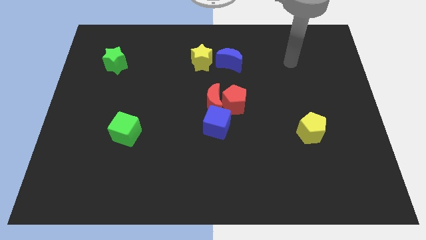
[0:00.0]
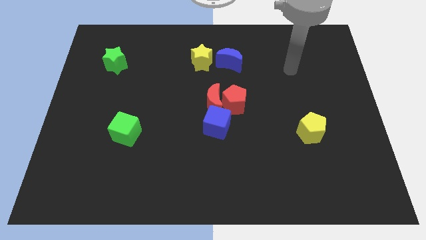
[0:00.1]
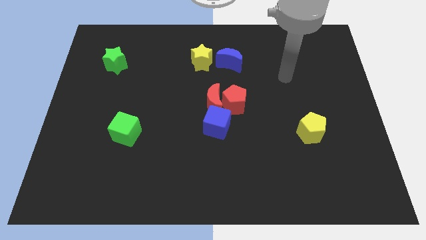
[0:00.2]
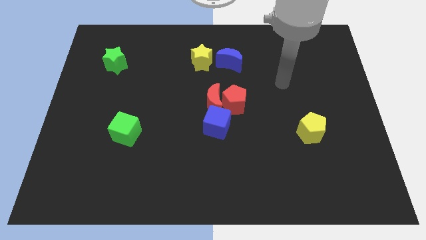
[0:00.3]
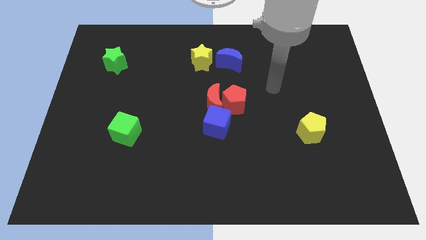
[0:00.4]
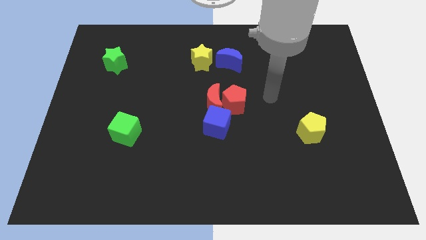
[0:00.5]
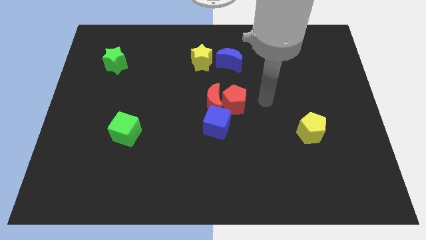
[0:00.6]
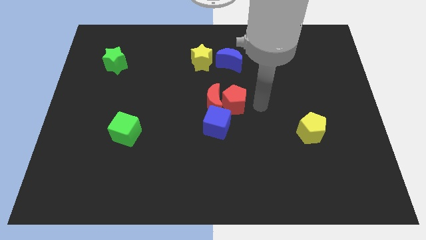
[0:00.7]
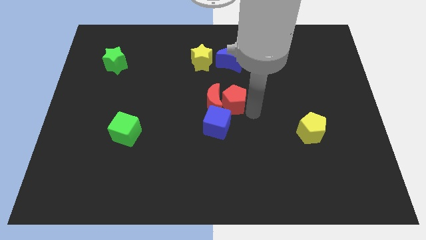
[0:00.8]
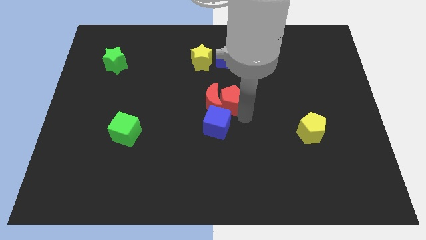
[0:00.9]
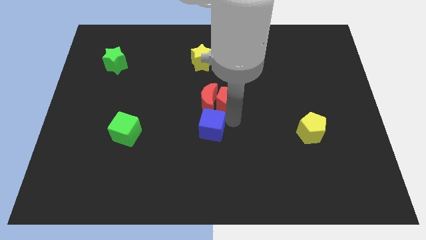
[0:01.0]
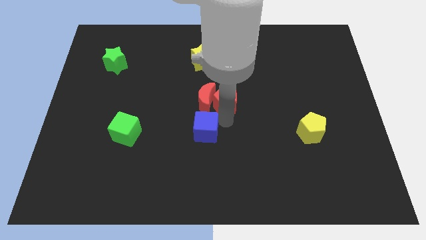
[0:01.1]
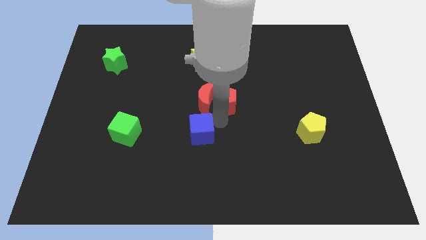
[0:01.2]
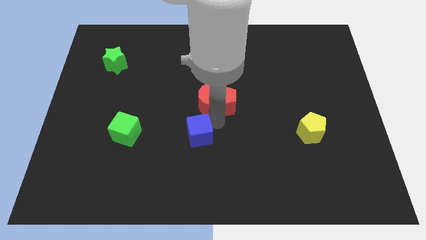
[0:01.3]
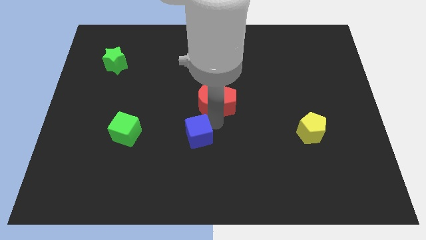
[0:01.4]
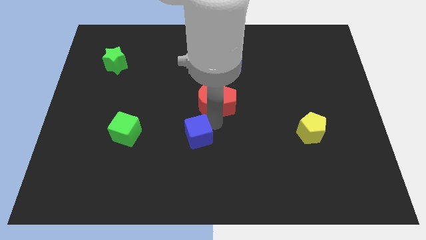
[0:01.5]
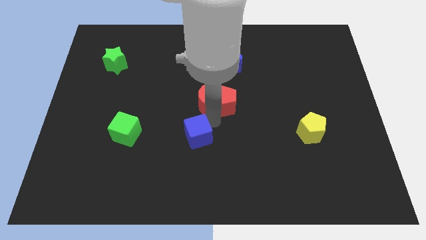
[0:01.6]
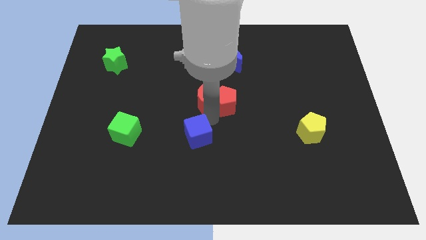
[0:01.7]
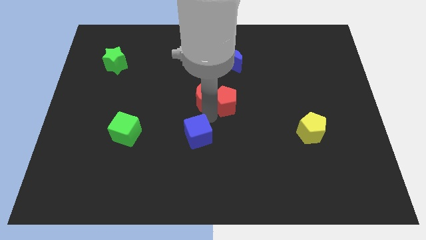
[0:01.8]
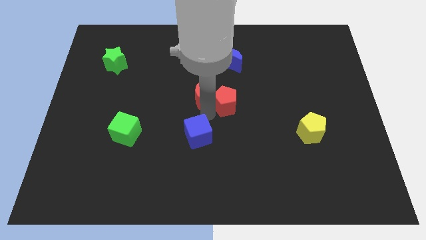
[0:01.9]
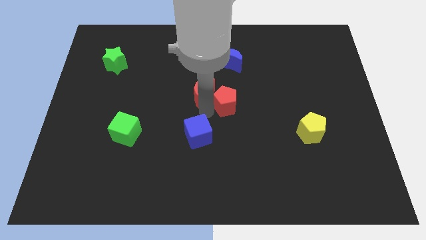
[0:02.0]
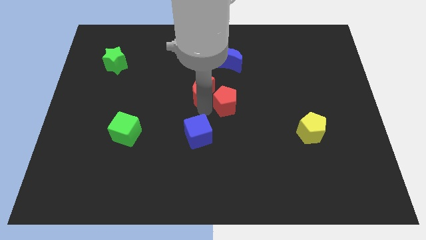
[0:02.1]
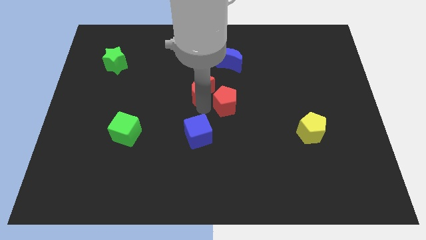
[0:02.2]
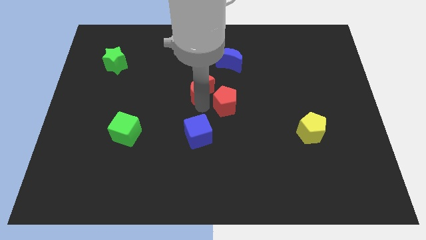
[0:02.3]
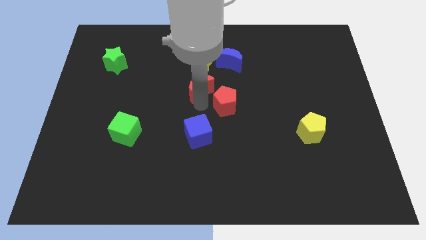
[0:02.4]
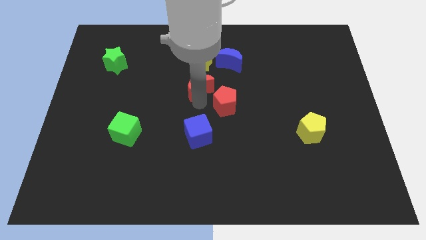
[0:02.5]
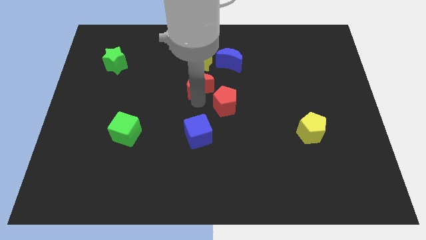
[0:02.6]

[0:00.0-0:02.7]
pull the red moon apart from the red pentagon and blue cube

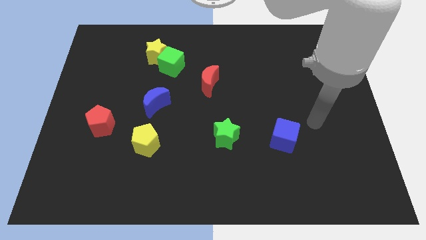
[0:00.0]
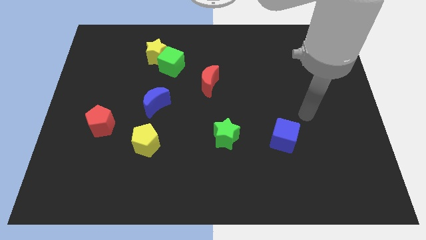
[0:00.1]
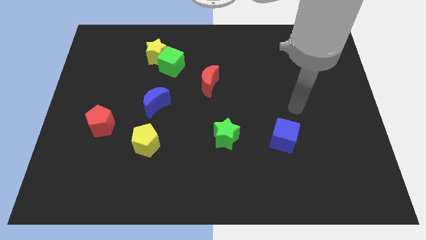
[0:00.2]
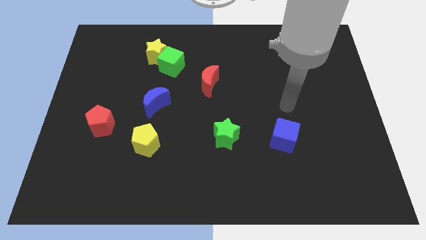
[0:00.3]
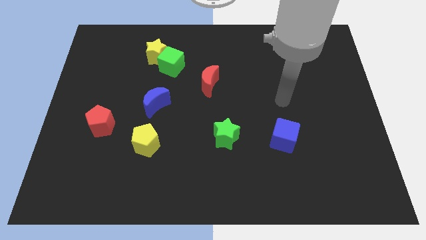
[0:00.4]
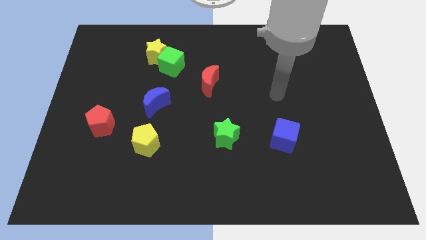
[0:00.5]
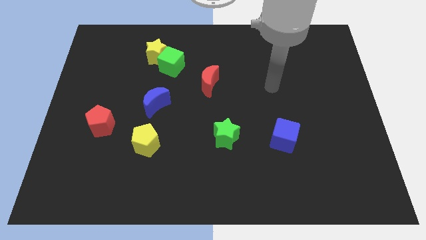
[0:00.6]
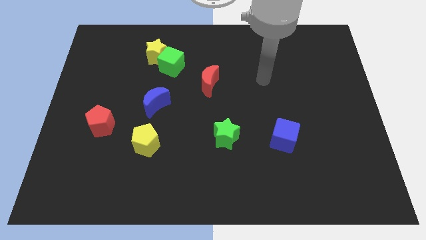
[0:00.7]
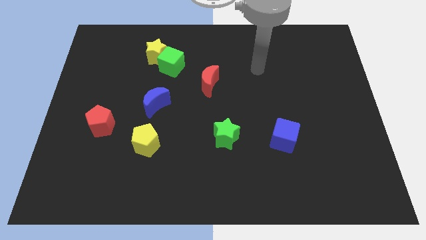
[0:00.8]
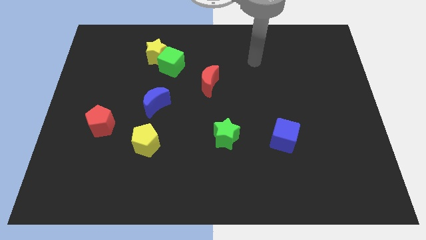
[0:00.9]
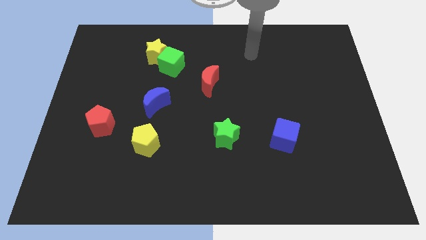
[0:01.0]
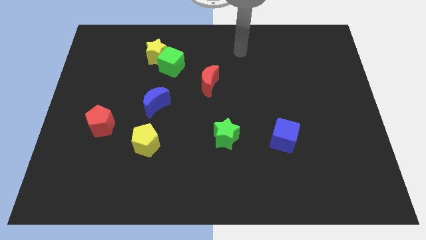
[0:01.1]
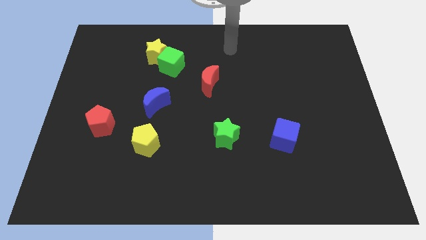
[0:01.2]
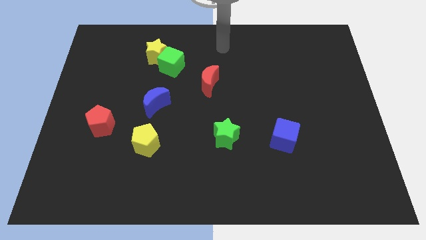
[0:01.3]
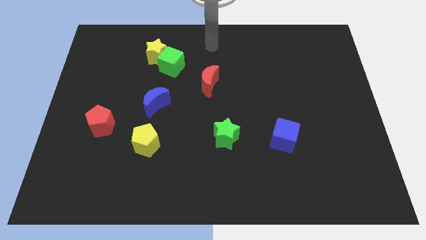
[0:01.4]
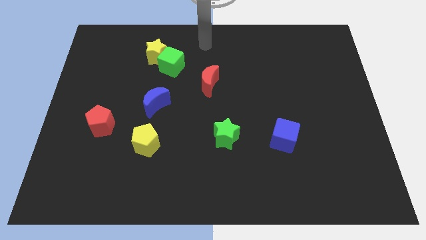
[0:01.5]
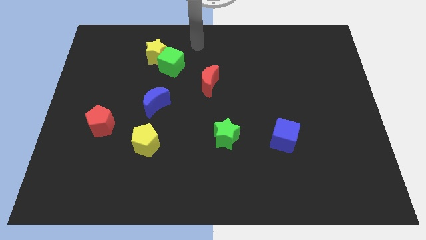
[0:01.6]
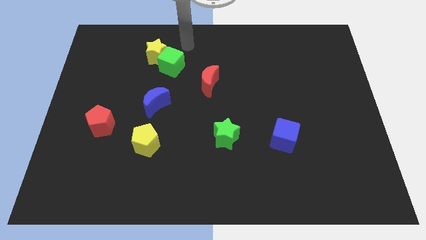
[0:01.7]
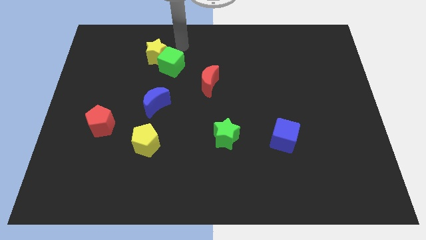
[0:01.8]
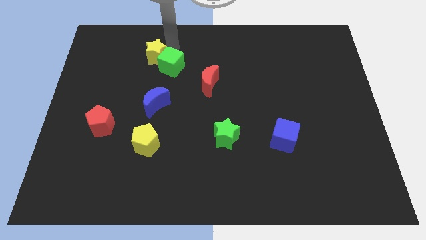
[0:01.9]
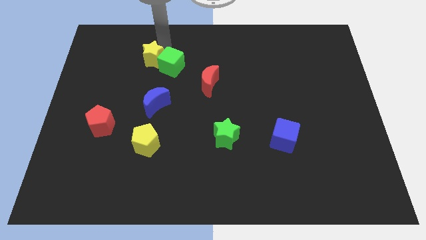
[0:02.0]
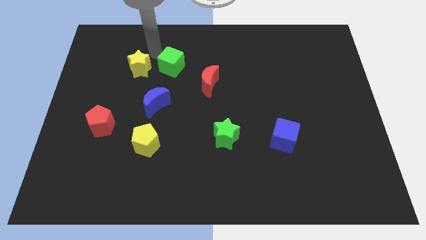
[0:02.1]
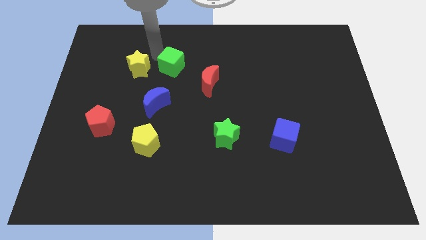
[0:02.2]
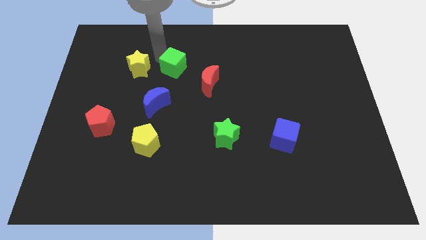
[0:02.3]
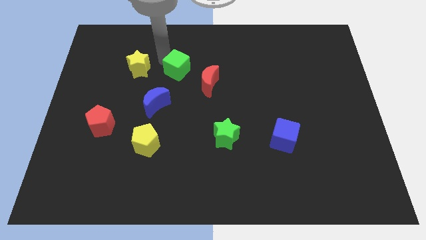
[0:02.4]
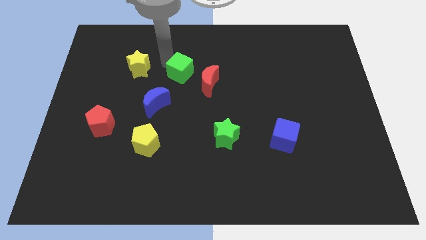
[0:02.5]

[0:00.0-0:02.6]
move the green cube away from the yellow star

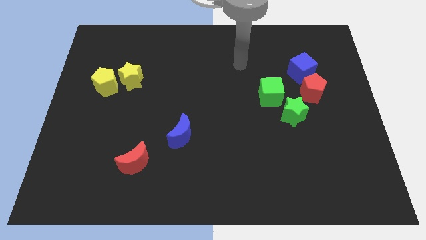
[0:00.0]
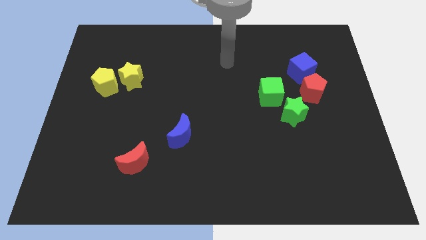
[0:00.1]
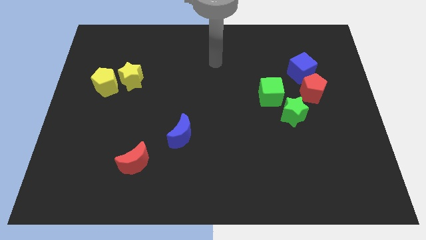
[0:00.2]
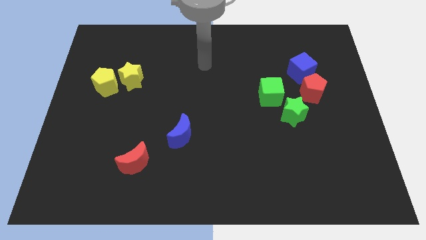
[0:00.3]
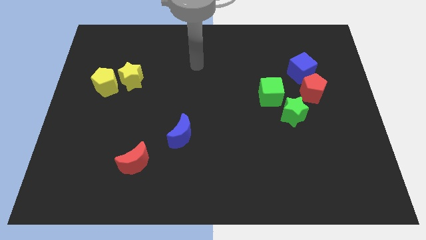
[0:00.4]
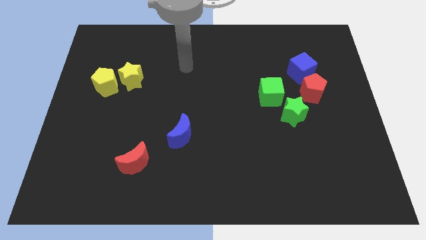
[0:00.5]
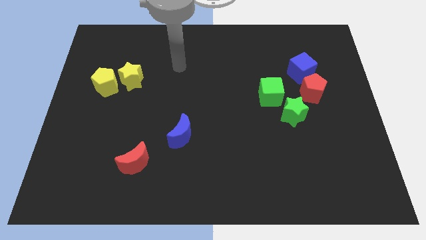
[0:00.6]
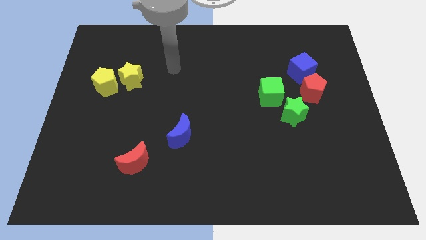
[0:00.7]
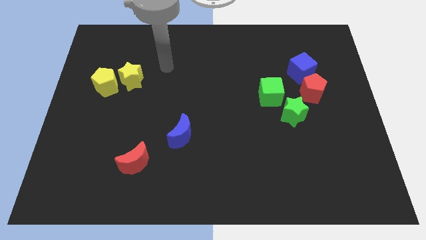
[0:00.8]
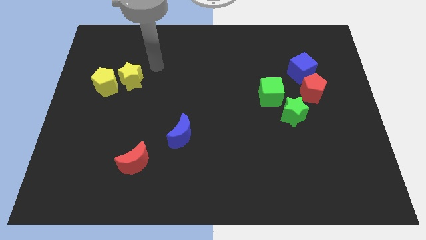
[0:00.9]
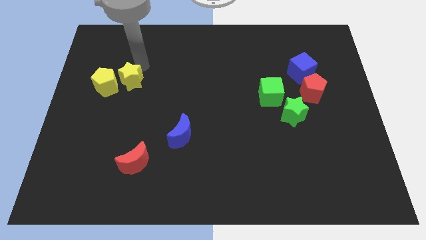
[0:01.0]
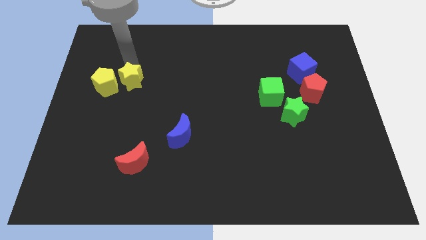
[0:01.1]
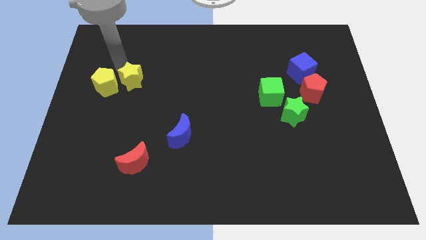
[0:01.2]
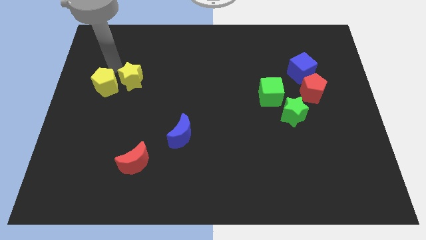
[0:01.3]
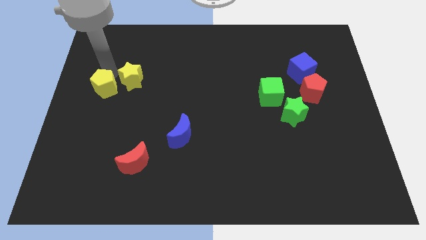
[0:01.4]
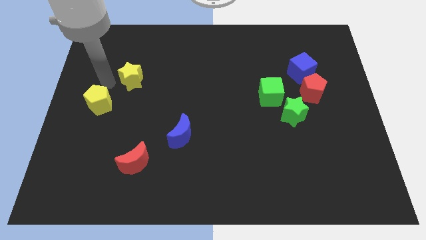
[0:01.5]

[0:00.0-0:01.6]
separate the yellow star from the yellow pentagon

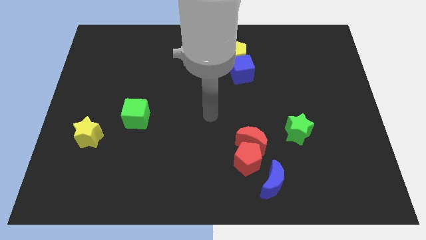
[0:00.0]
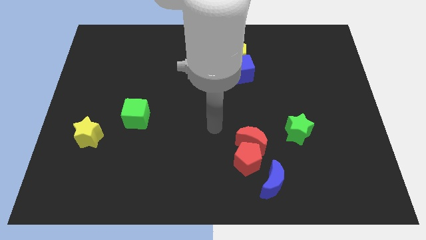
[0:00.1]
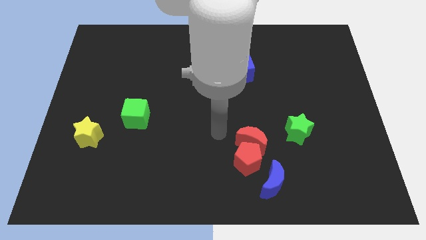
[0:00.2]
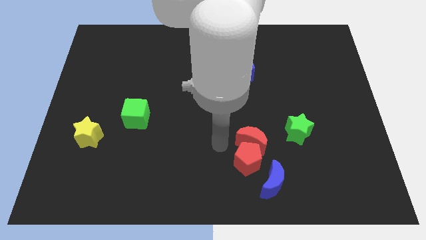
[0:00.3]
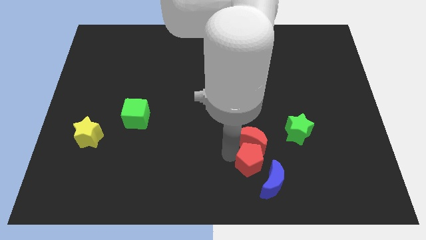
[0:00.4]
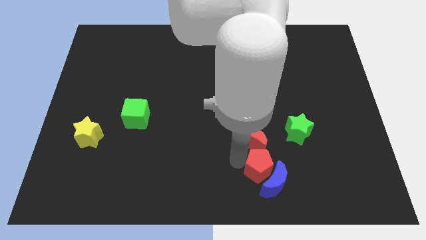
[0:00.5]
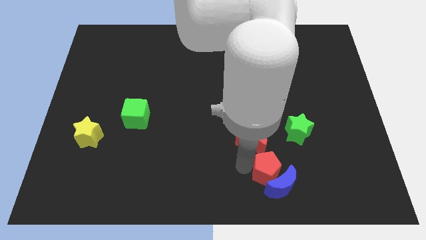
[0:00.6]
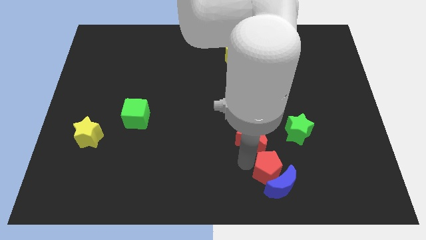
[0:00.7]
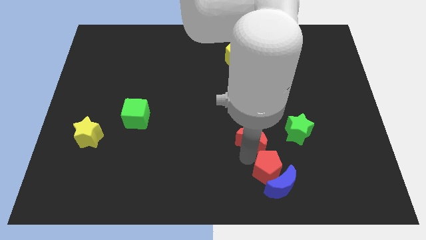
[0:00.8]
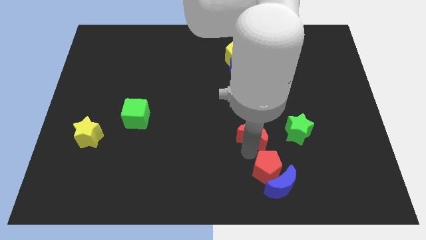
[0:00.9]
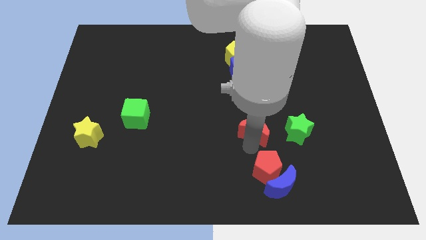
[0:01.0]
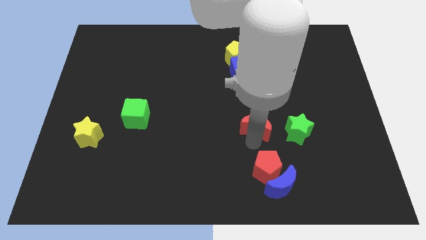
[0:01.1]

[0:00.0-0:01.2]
move the red moon away from the red pentagon

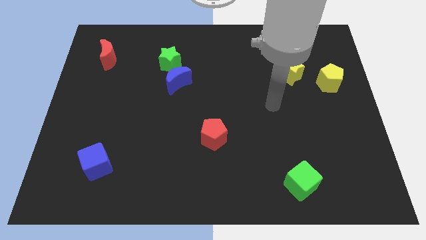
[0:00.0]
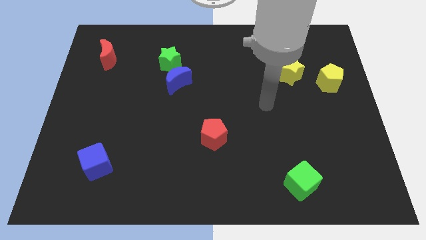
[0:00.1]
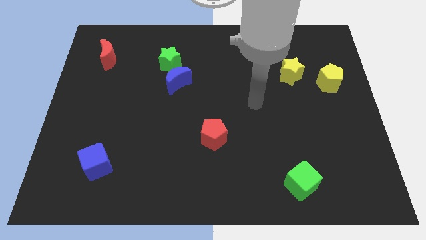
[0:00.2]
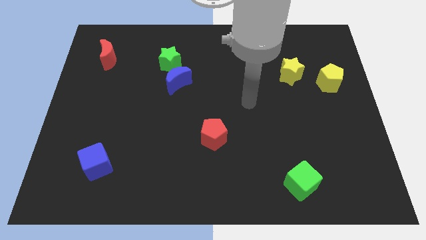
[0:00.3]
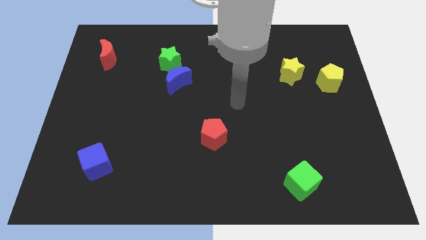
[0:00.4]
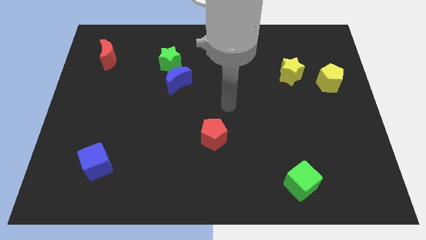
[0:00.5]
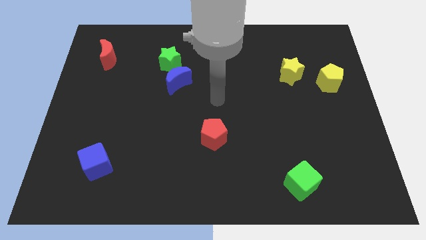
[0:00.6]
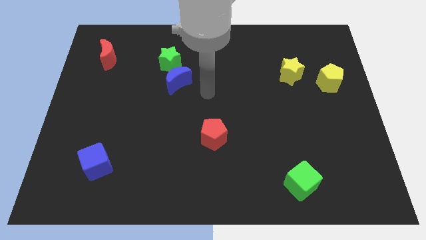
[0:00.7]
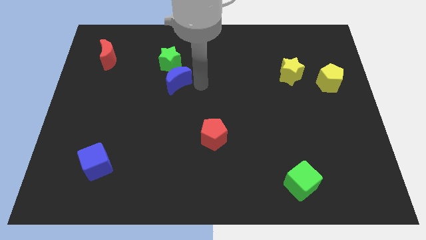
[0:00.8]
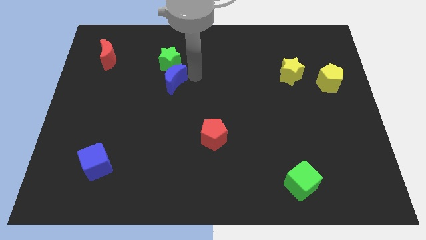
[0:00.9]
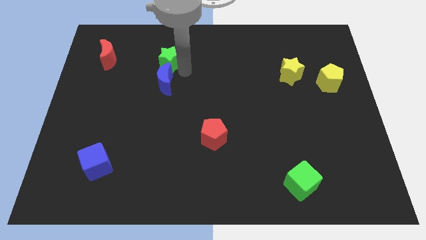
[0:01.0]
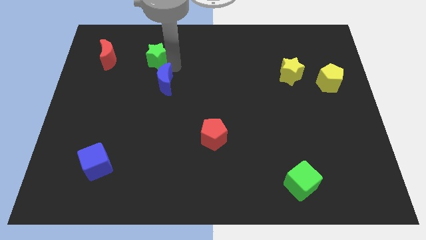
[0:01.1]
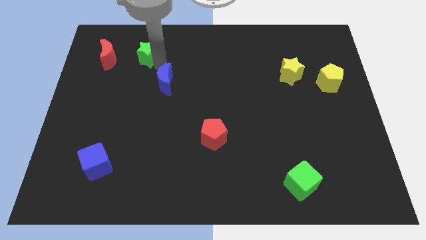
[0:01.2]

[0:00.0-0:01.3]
separate the blue moon from the green star
